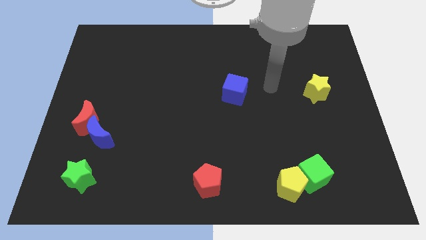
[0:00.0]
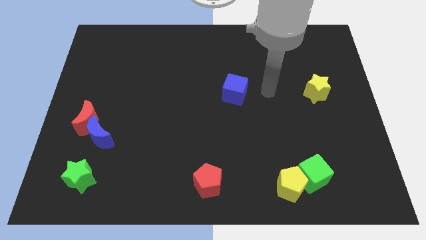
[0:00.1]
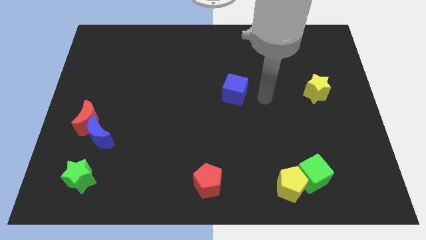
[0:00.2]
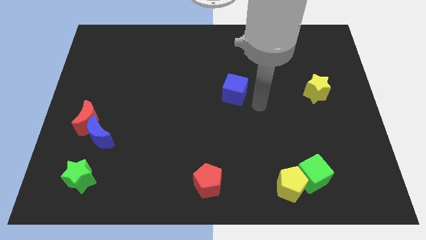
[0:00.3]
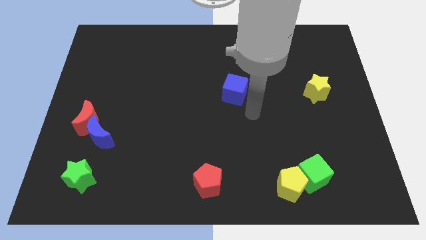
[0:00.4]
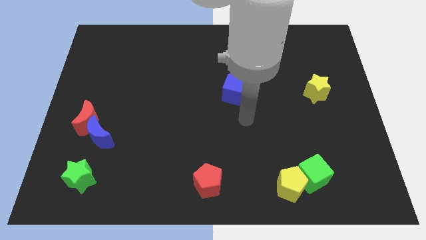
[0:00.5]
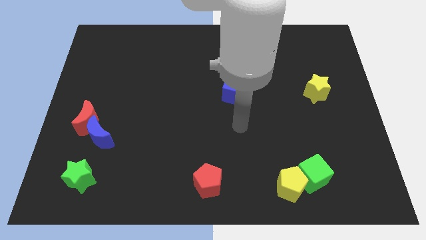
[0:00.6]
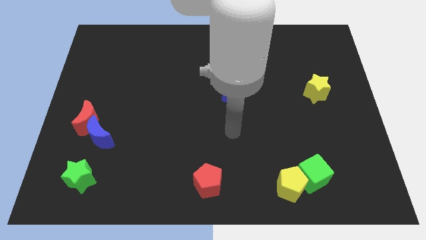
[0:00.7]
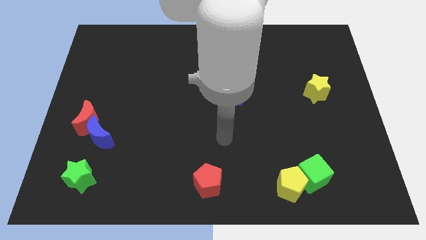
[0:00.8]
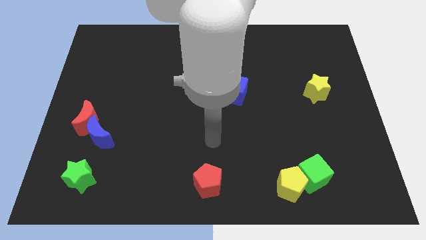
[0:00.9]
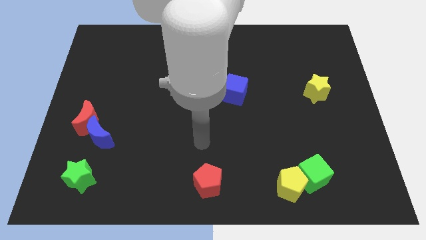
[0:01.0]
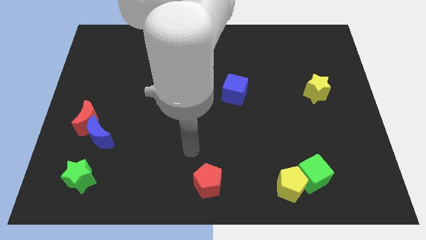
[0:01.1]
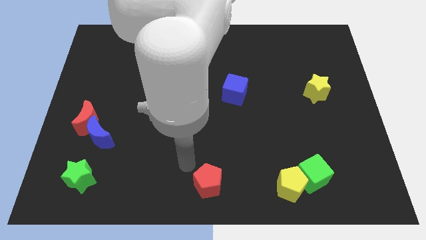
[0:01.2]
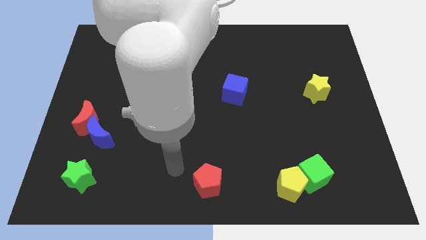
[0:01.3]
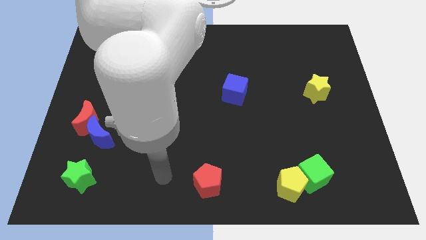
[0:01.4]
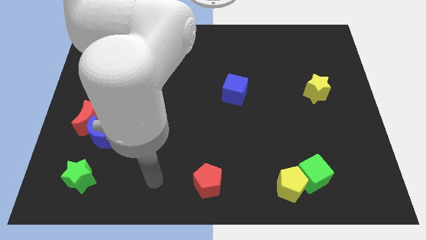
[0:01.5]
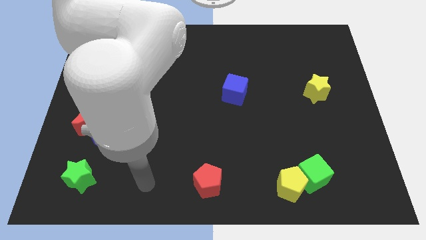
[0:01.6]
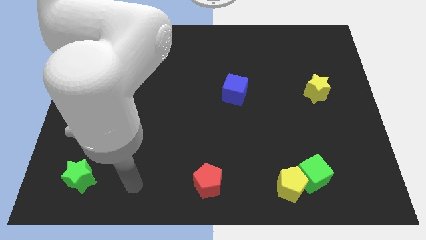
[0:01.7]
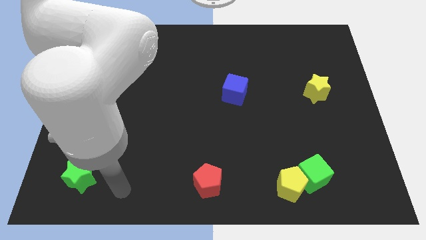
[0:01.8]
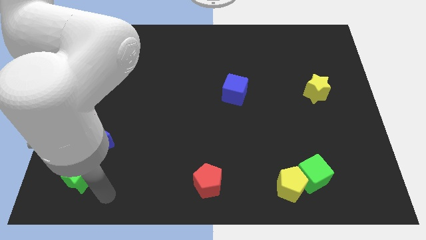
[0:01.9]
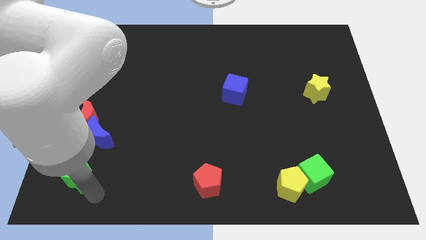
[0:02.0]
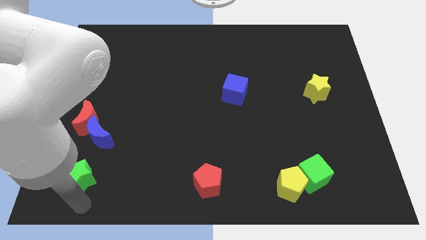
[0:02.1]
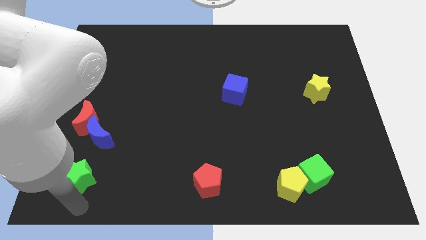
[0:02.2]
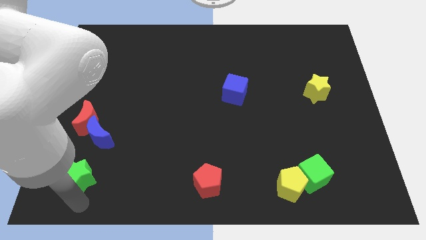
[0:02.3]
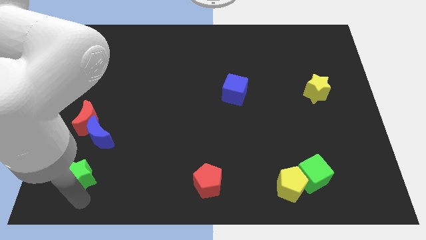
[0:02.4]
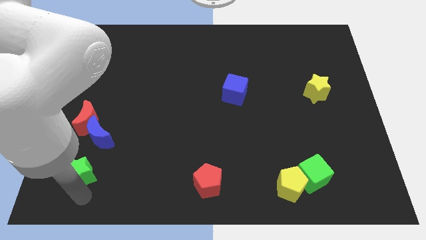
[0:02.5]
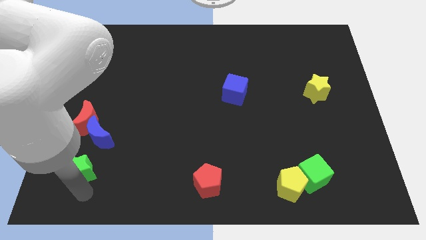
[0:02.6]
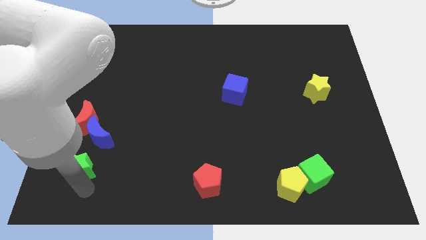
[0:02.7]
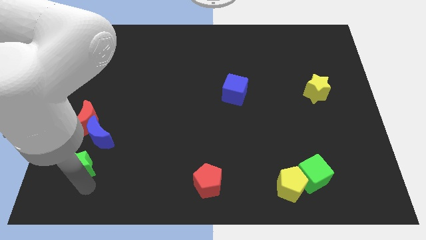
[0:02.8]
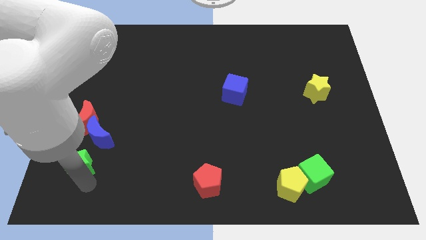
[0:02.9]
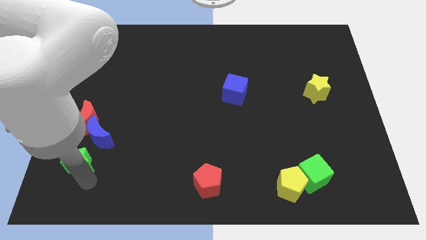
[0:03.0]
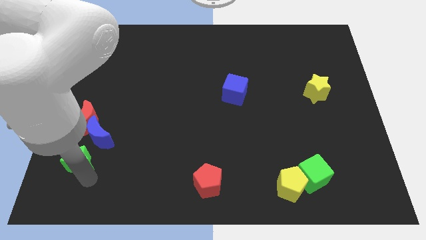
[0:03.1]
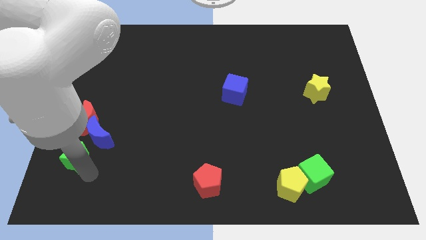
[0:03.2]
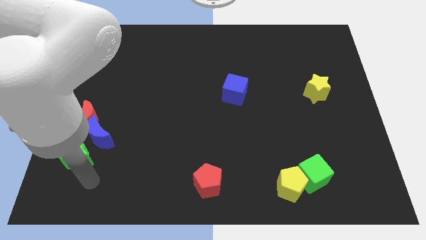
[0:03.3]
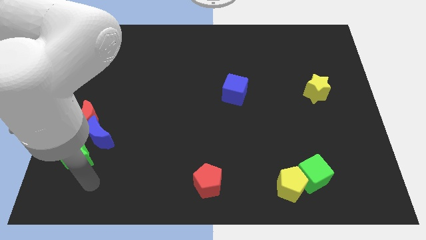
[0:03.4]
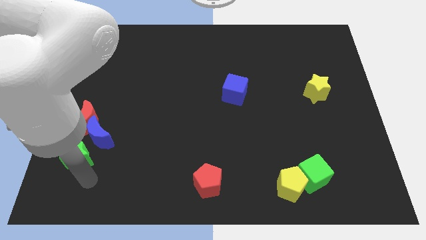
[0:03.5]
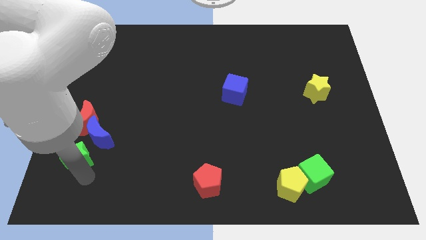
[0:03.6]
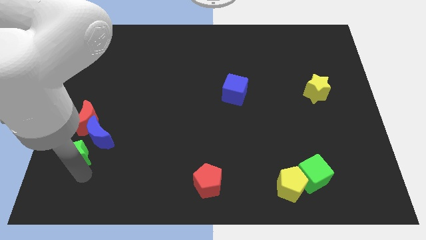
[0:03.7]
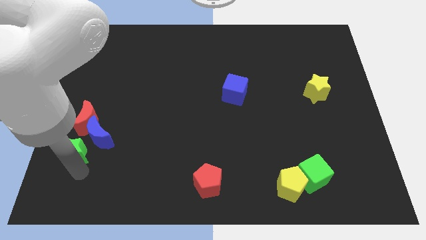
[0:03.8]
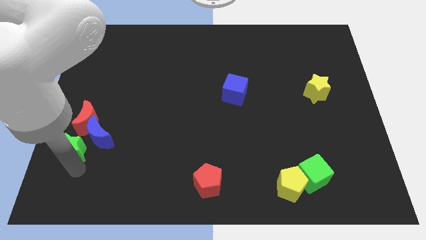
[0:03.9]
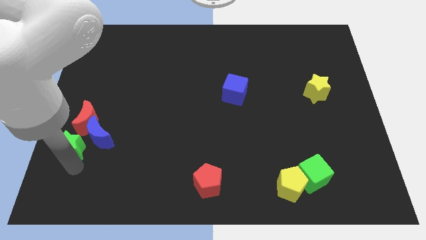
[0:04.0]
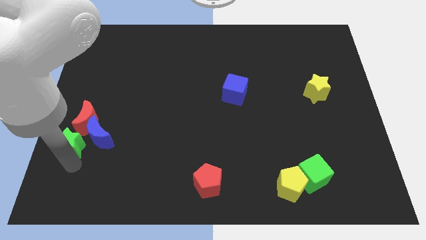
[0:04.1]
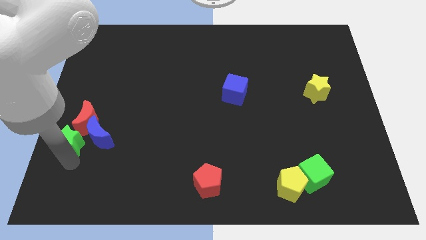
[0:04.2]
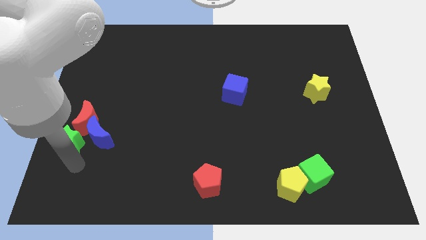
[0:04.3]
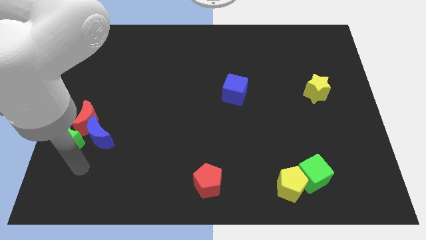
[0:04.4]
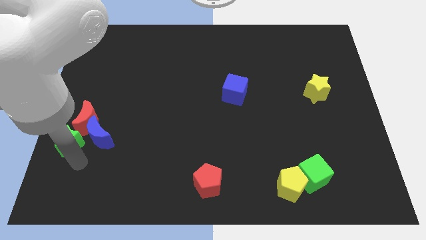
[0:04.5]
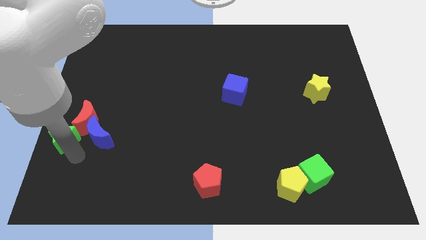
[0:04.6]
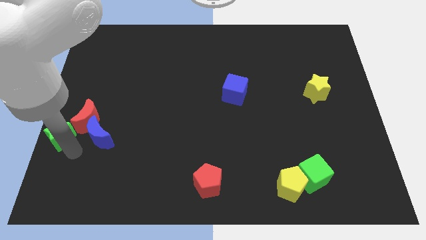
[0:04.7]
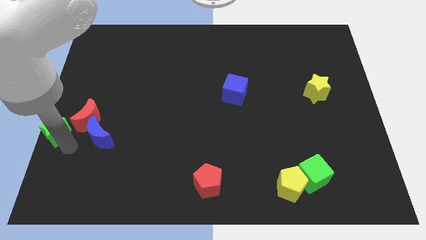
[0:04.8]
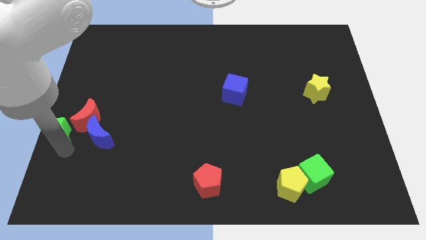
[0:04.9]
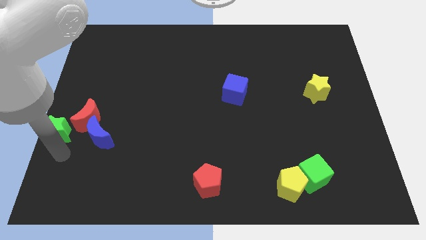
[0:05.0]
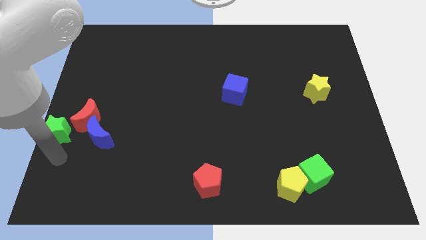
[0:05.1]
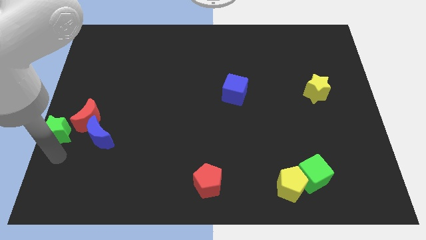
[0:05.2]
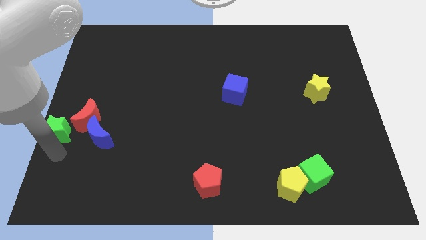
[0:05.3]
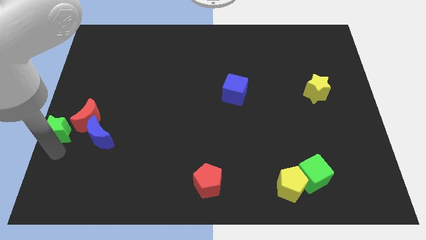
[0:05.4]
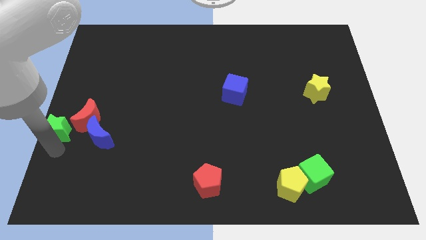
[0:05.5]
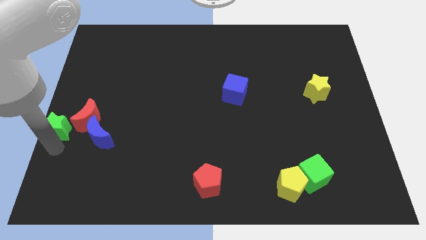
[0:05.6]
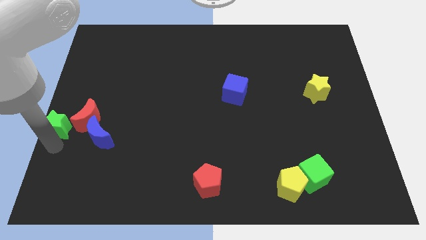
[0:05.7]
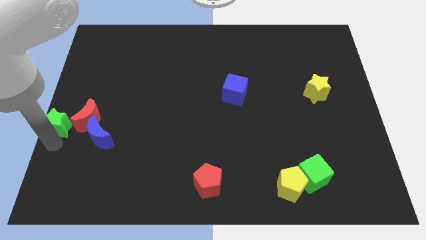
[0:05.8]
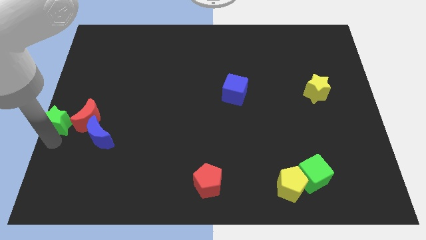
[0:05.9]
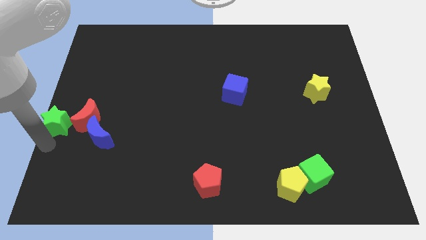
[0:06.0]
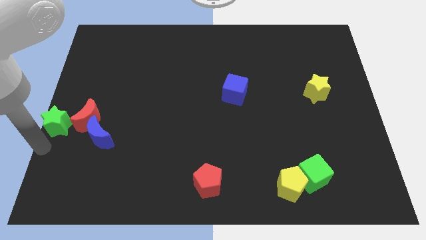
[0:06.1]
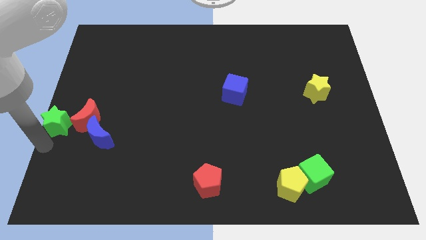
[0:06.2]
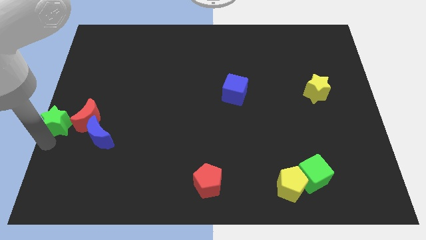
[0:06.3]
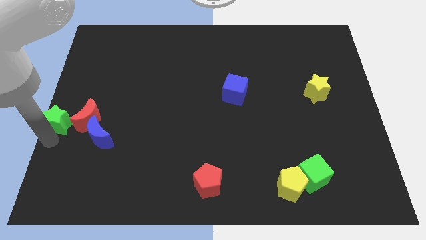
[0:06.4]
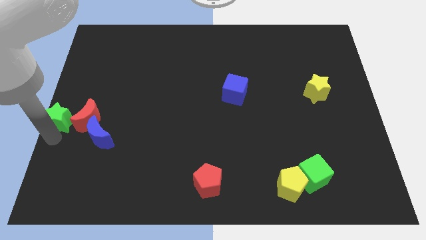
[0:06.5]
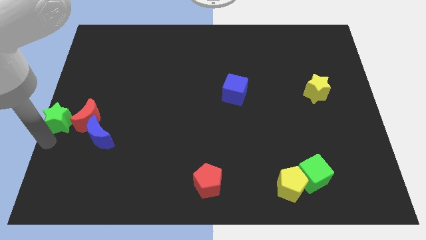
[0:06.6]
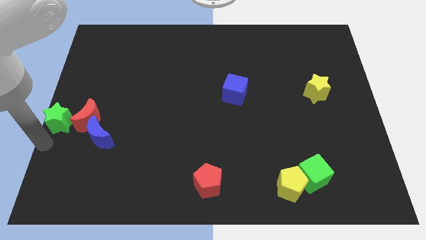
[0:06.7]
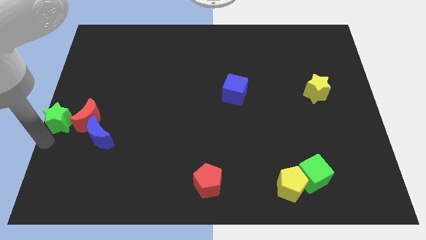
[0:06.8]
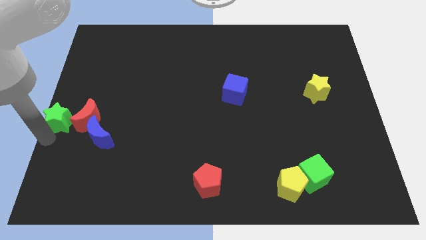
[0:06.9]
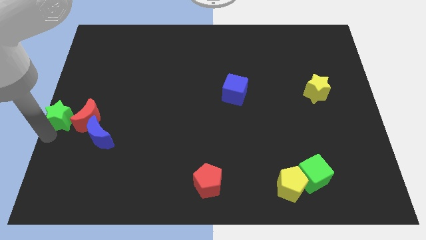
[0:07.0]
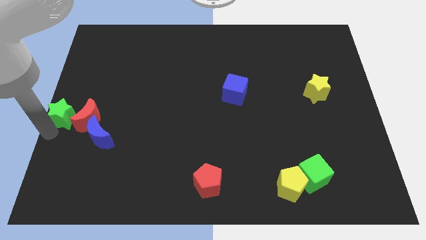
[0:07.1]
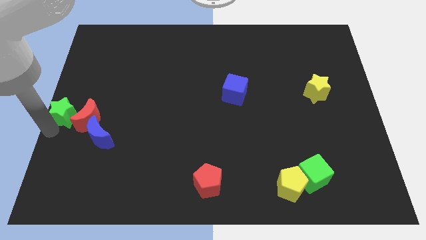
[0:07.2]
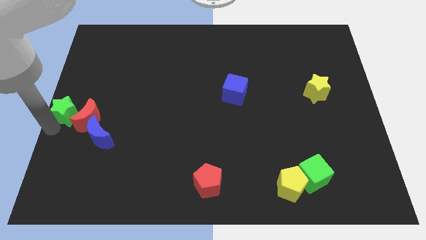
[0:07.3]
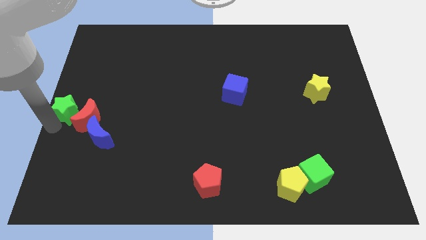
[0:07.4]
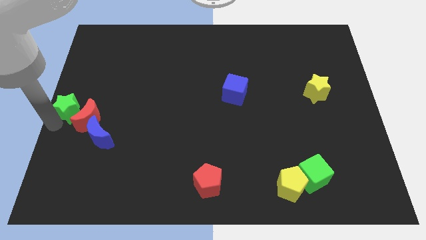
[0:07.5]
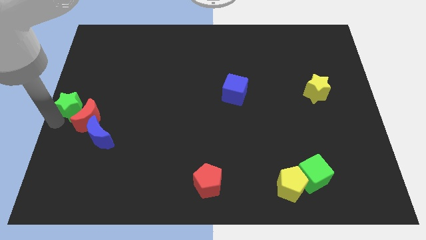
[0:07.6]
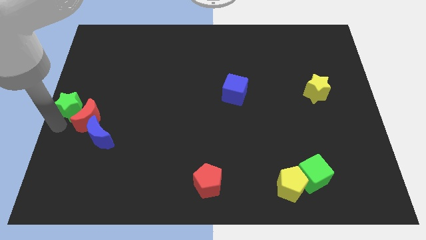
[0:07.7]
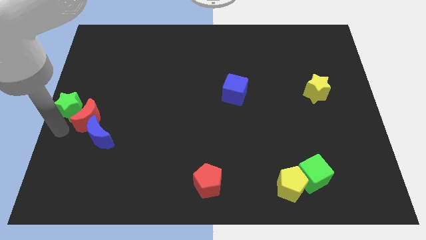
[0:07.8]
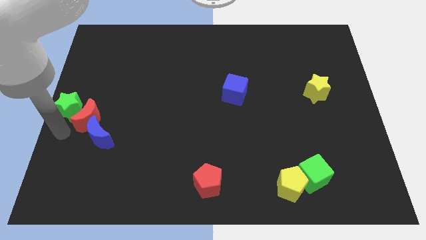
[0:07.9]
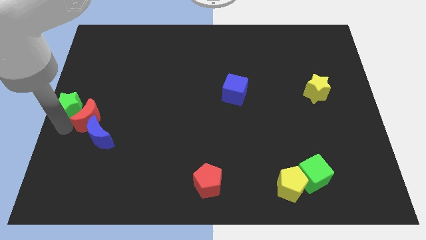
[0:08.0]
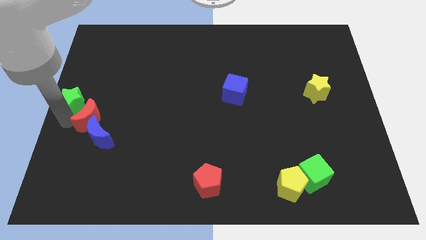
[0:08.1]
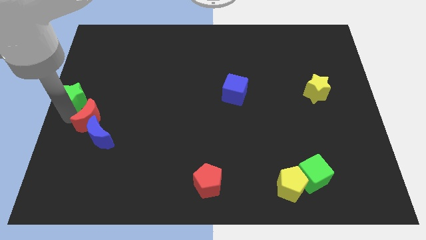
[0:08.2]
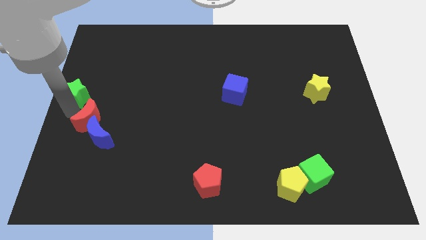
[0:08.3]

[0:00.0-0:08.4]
move the green star upwards
